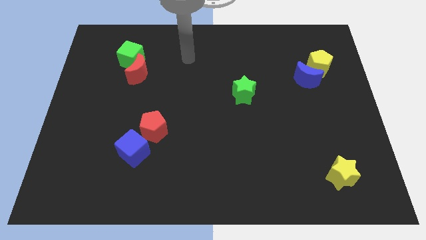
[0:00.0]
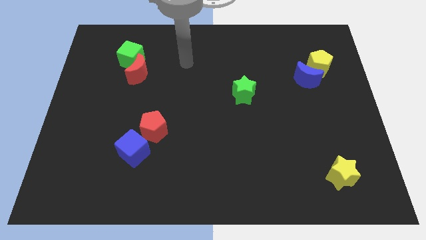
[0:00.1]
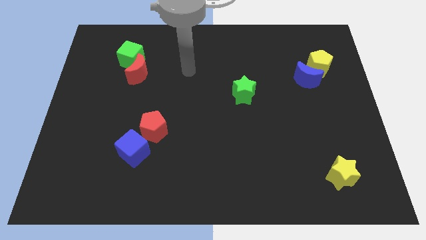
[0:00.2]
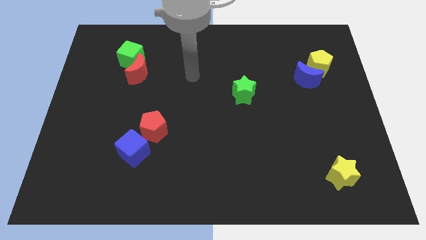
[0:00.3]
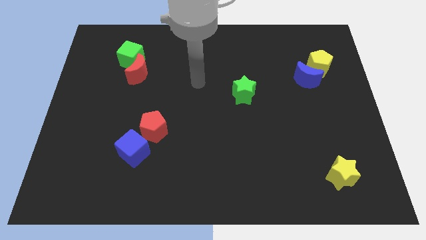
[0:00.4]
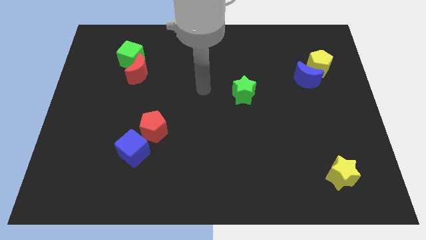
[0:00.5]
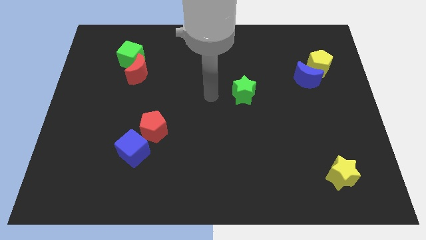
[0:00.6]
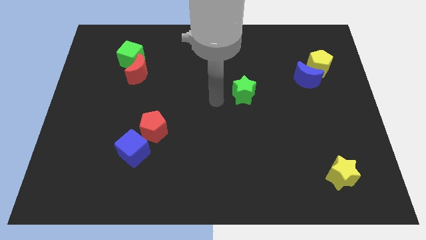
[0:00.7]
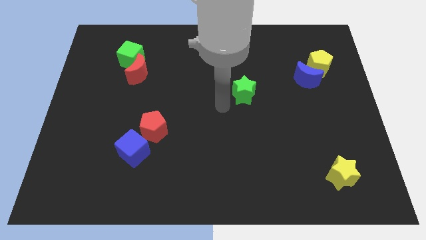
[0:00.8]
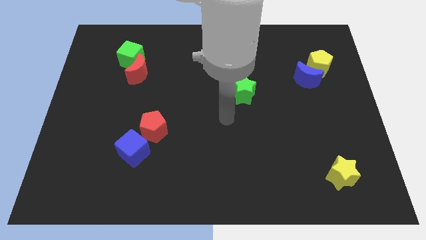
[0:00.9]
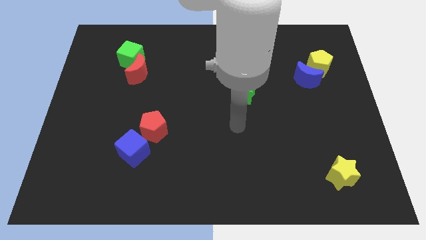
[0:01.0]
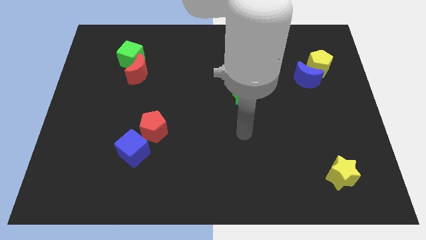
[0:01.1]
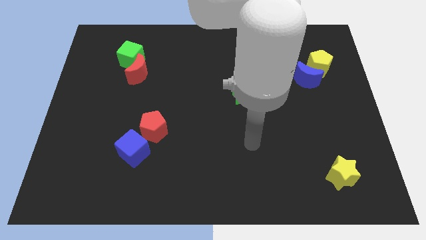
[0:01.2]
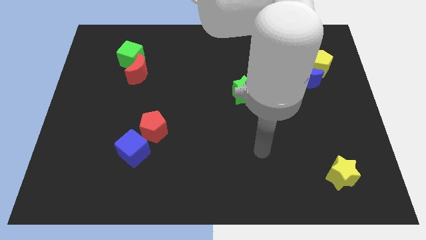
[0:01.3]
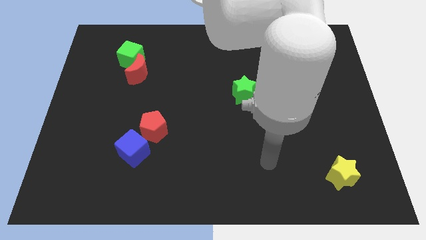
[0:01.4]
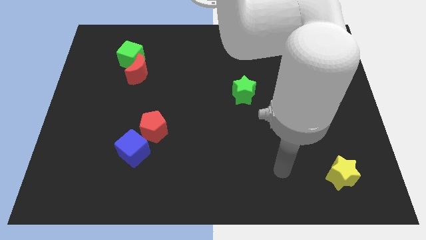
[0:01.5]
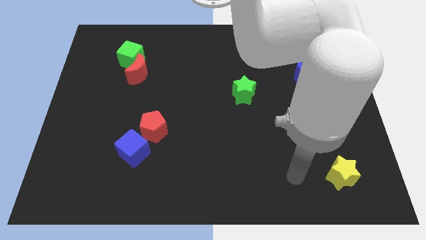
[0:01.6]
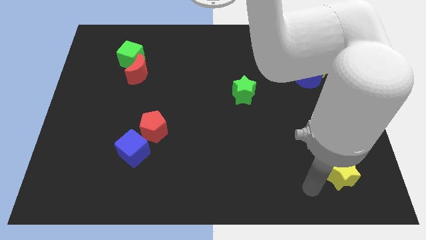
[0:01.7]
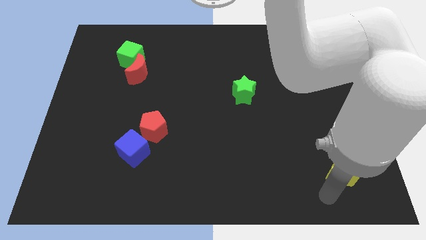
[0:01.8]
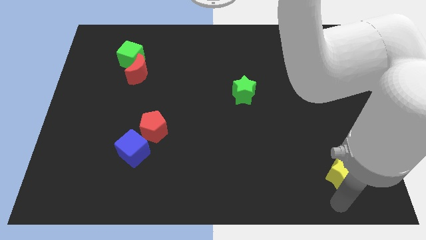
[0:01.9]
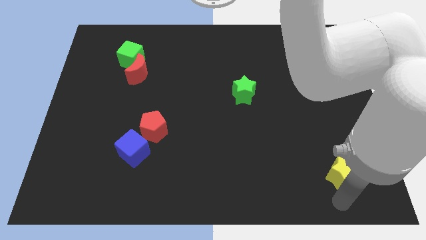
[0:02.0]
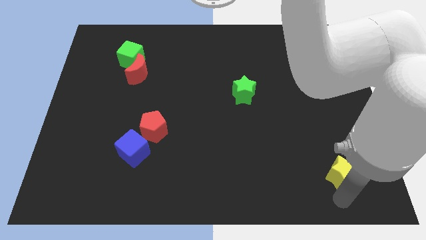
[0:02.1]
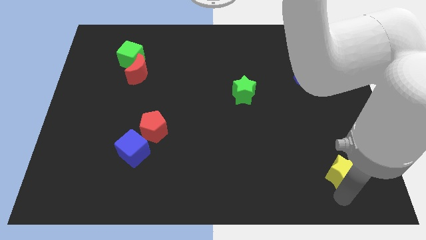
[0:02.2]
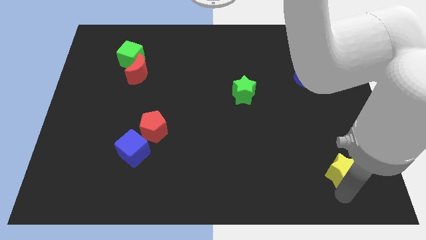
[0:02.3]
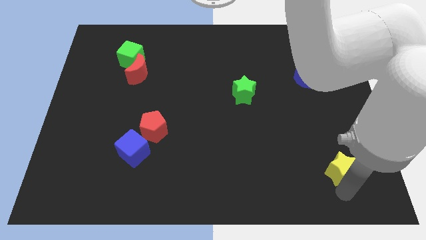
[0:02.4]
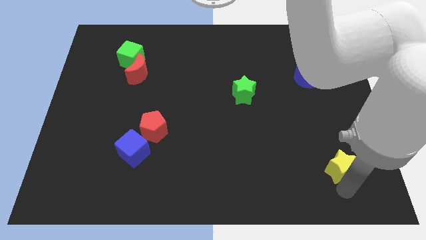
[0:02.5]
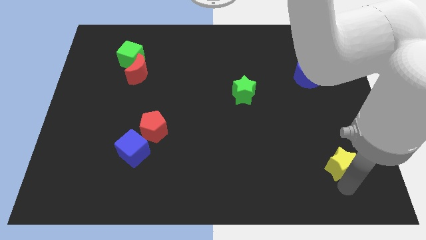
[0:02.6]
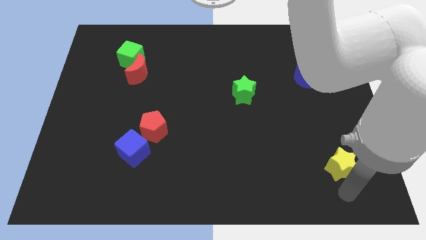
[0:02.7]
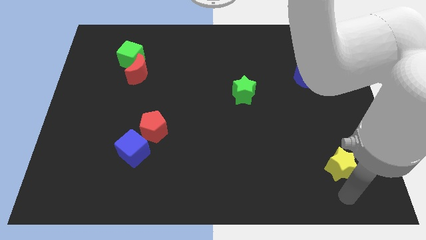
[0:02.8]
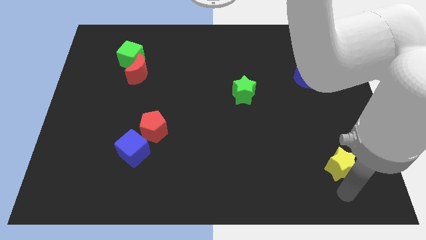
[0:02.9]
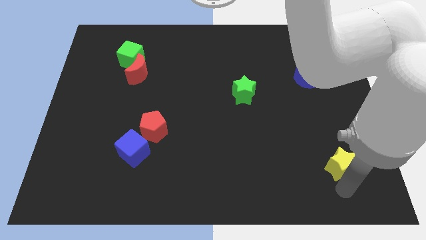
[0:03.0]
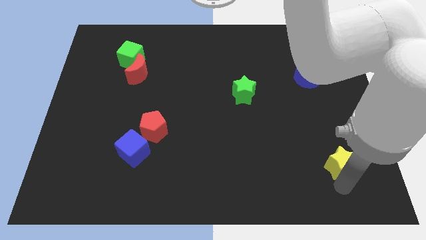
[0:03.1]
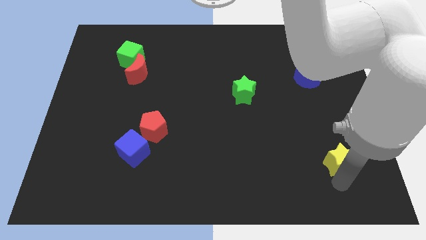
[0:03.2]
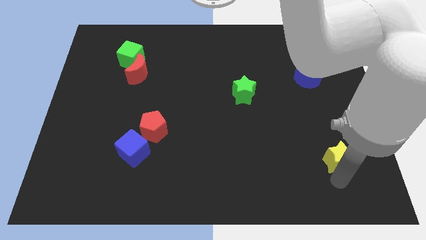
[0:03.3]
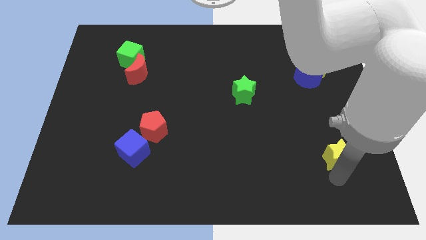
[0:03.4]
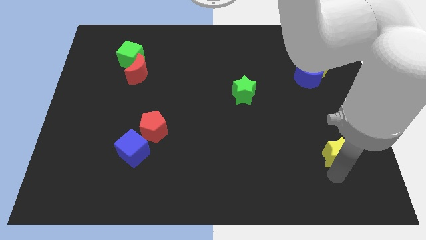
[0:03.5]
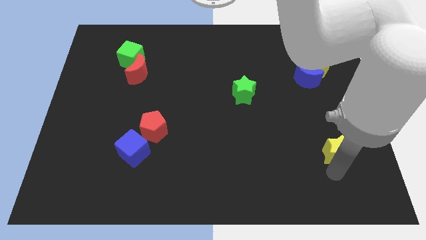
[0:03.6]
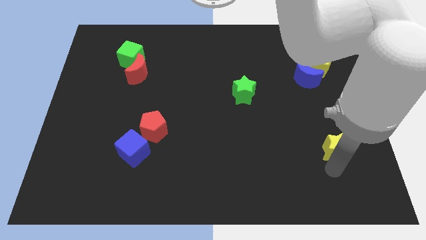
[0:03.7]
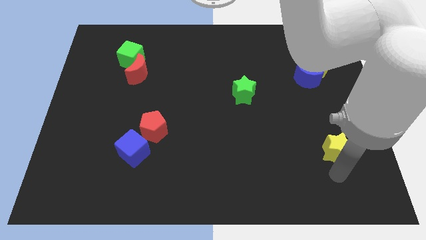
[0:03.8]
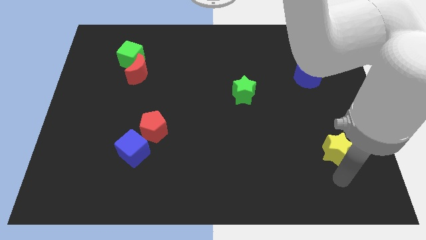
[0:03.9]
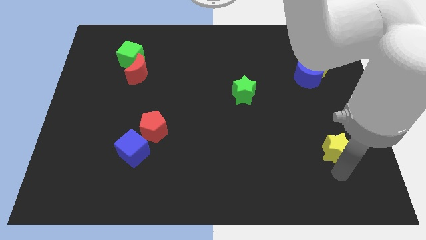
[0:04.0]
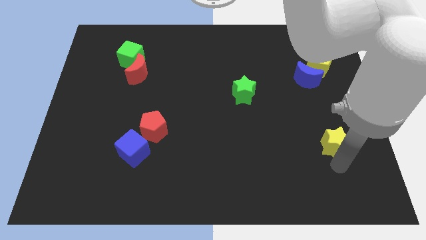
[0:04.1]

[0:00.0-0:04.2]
move the yellow star upwards somewhat

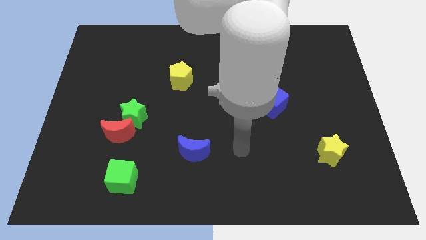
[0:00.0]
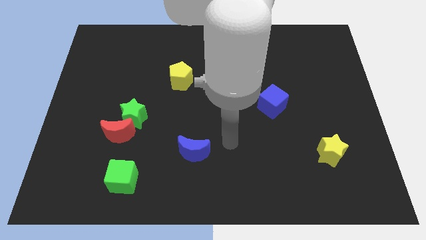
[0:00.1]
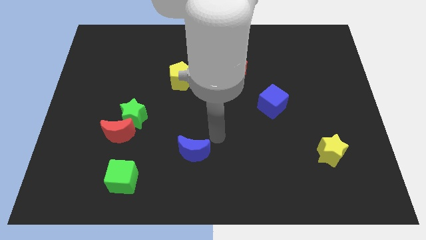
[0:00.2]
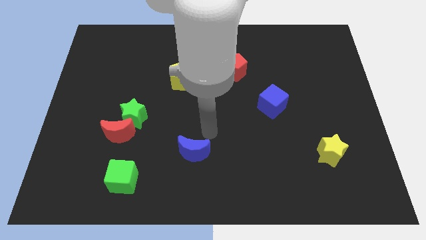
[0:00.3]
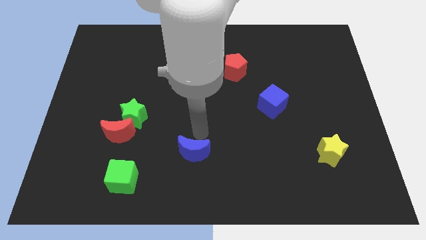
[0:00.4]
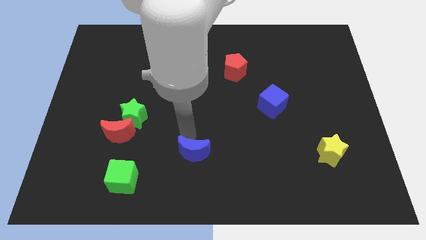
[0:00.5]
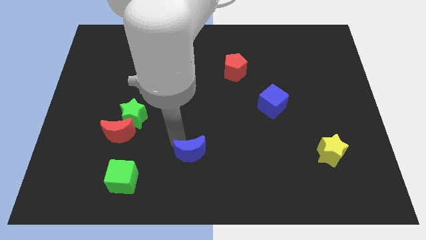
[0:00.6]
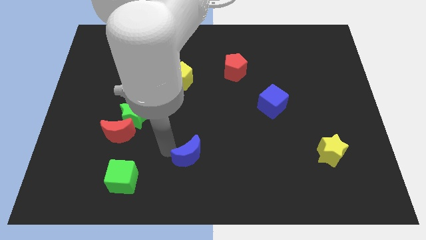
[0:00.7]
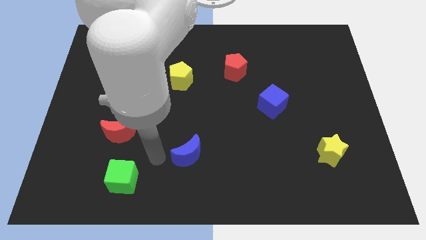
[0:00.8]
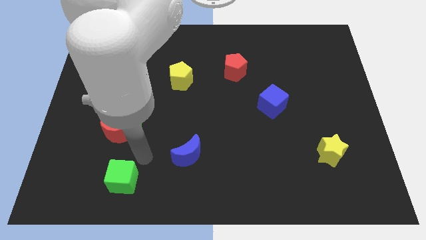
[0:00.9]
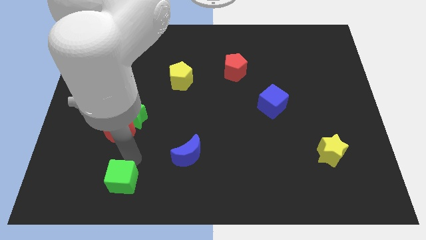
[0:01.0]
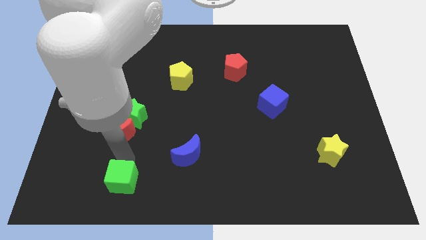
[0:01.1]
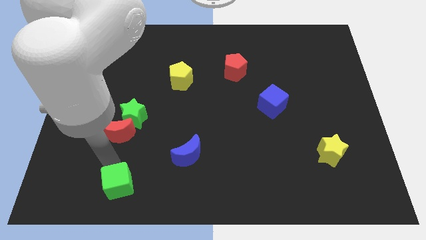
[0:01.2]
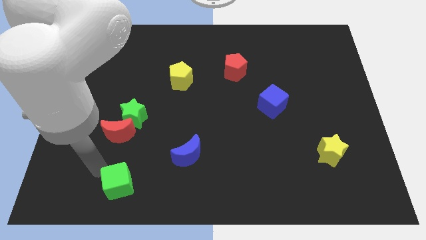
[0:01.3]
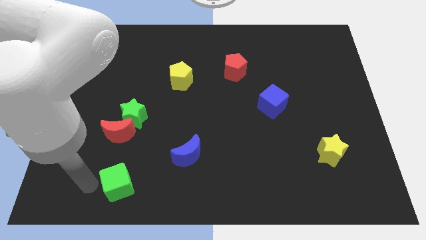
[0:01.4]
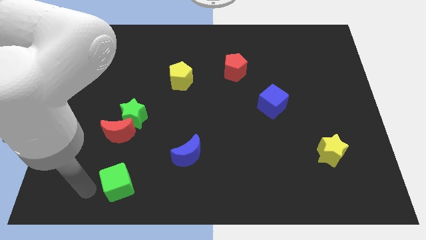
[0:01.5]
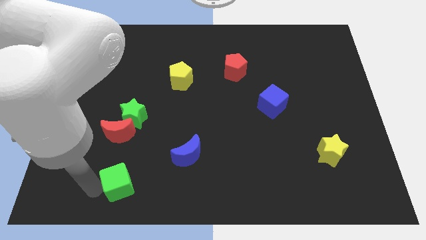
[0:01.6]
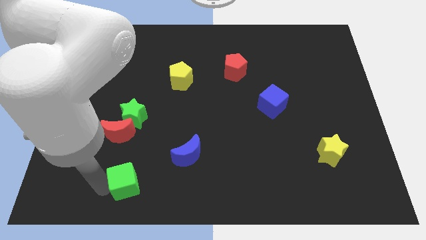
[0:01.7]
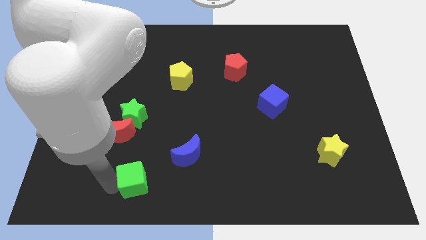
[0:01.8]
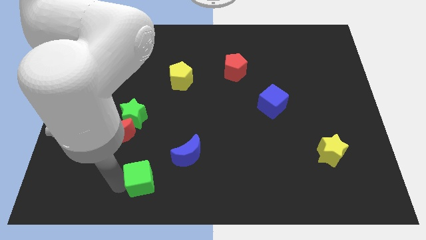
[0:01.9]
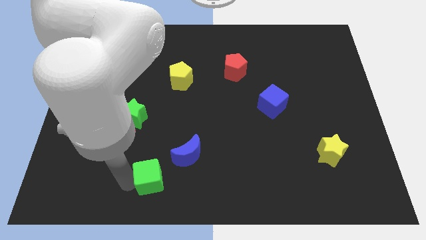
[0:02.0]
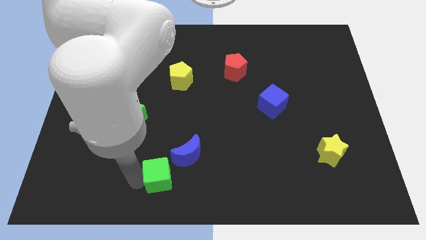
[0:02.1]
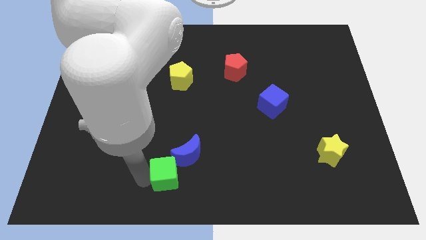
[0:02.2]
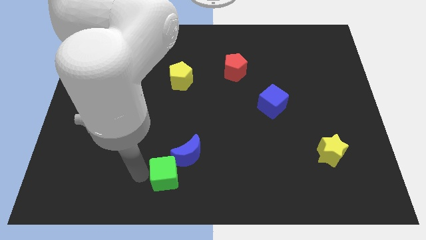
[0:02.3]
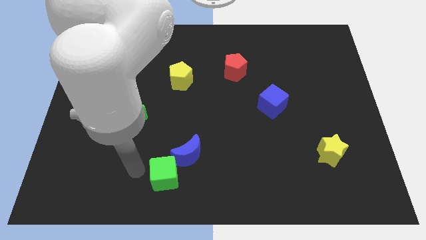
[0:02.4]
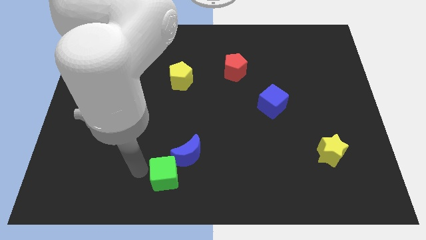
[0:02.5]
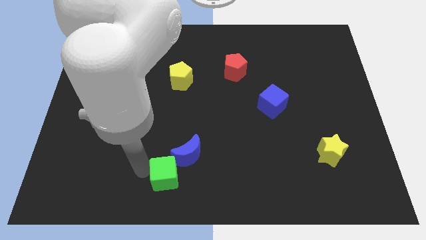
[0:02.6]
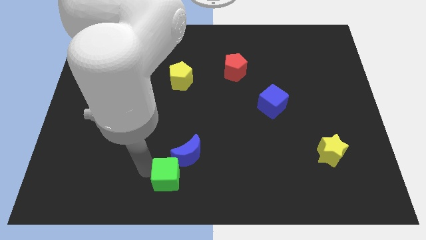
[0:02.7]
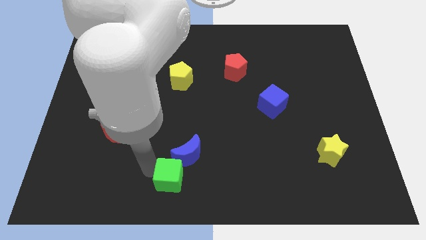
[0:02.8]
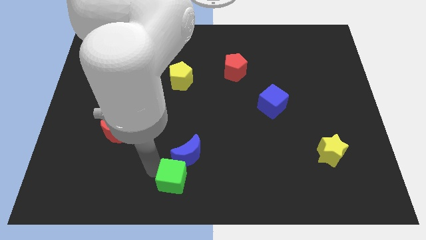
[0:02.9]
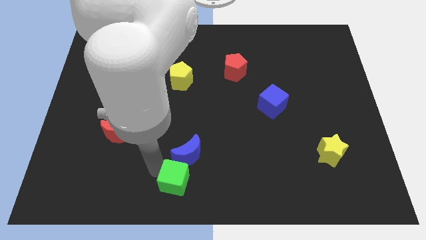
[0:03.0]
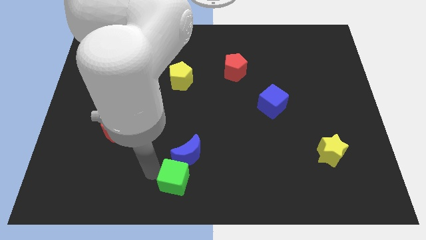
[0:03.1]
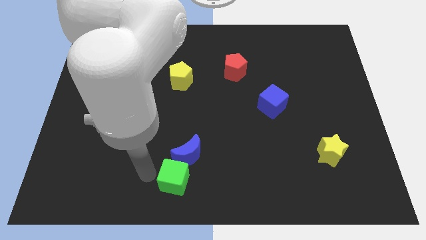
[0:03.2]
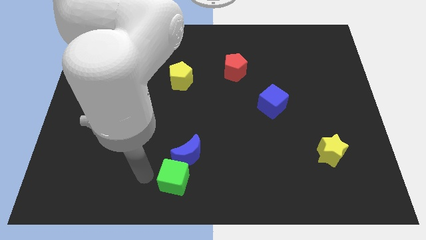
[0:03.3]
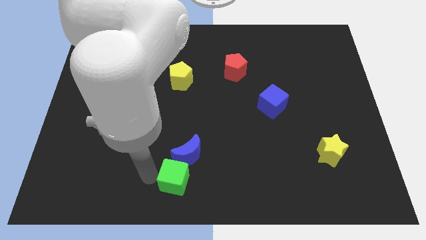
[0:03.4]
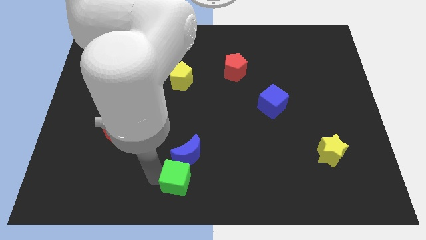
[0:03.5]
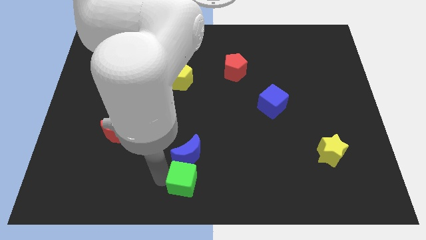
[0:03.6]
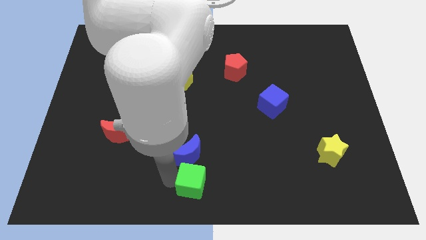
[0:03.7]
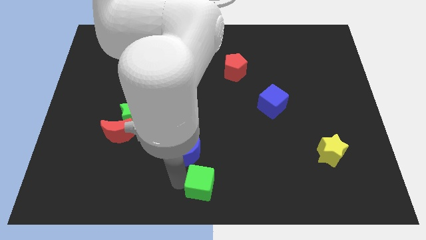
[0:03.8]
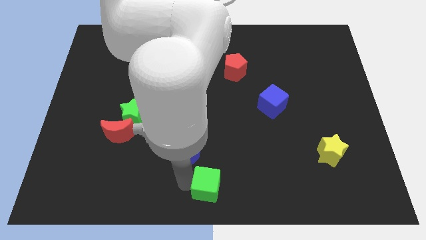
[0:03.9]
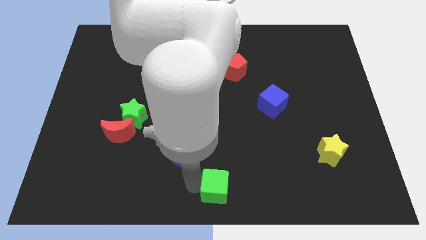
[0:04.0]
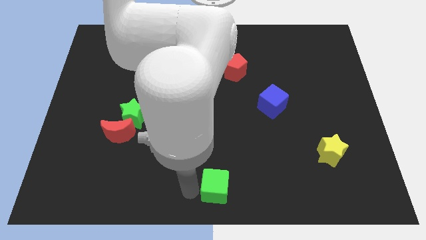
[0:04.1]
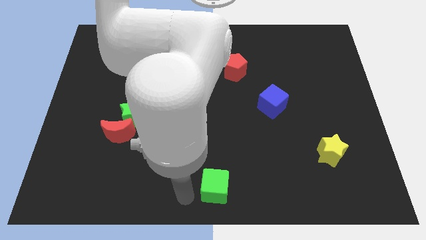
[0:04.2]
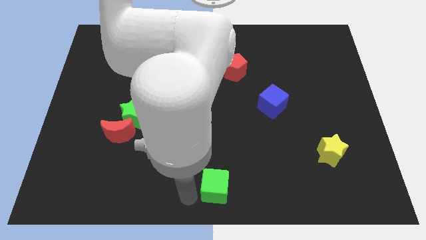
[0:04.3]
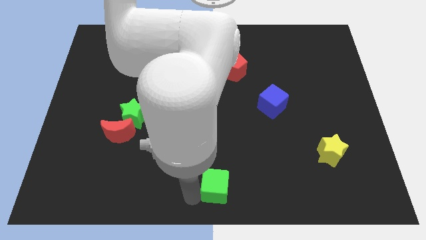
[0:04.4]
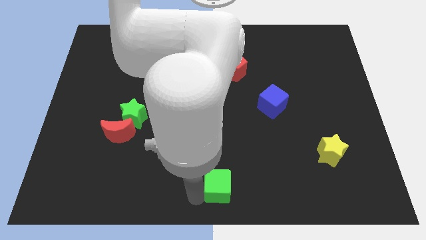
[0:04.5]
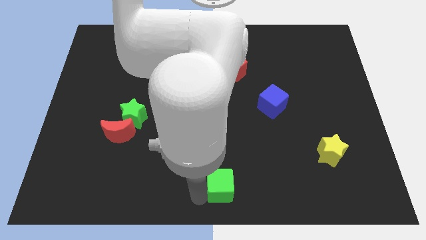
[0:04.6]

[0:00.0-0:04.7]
move the green cube to the right
